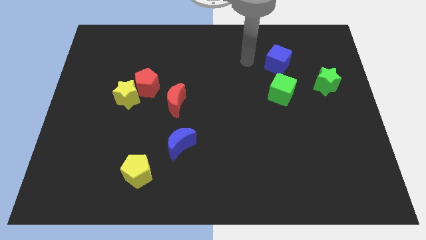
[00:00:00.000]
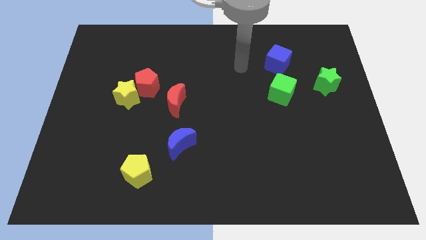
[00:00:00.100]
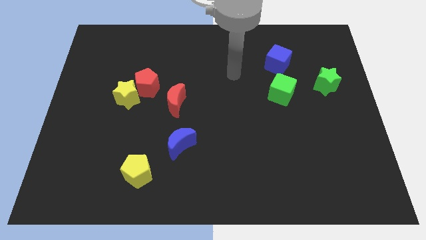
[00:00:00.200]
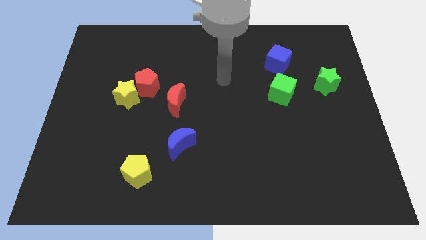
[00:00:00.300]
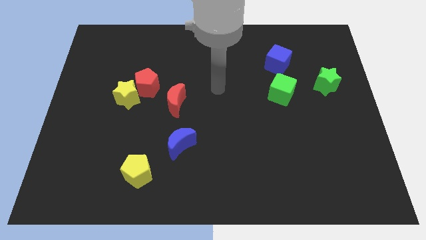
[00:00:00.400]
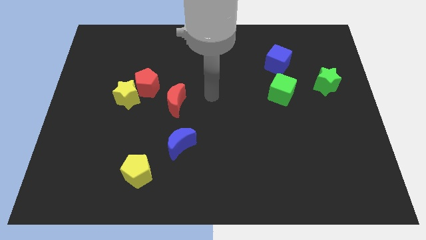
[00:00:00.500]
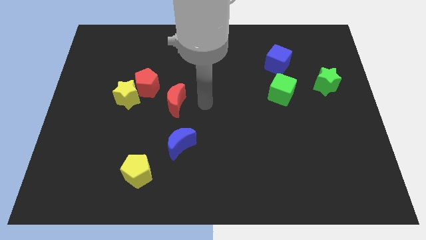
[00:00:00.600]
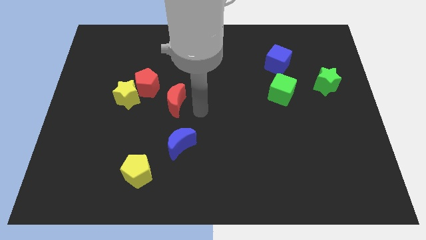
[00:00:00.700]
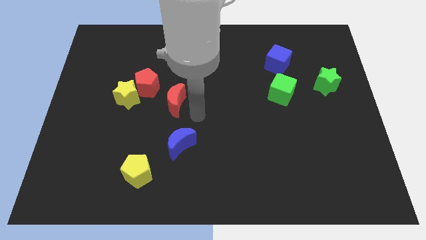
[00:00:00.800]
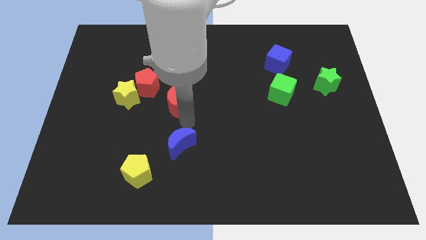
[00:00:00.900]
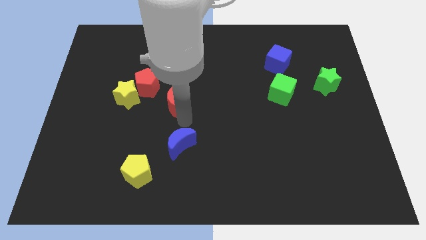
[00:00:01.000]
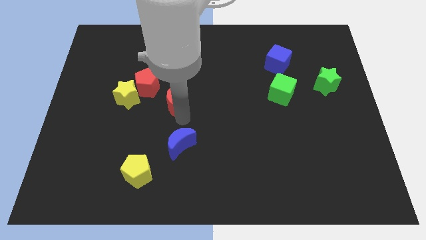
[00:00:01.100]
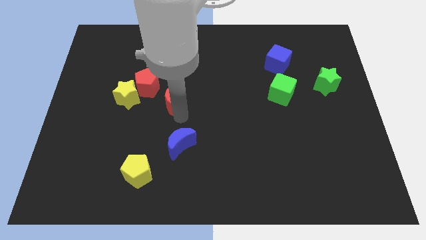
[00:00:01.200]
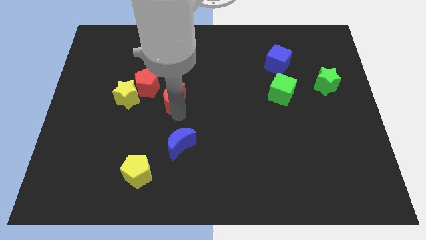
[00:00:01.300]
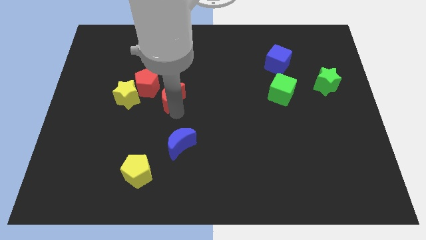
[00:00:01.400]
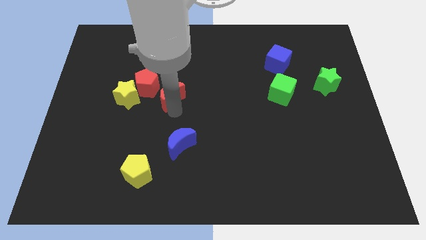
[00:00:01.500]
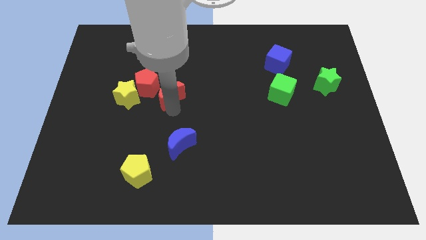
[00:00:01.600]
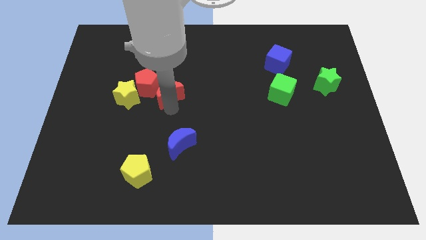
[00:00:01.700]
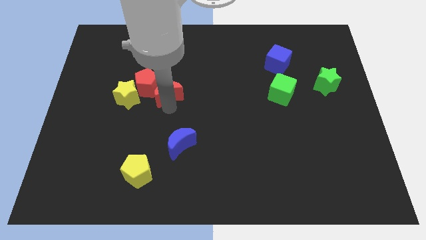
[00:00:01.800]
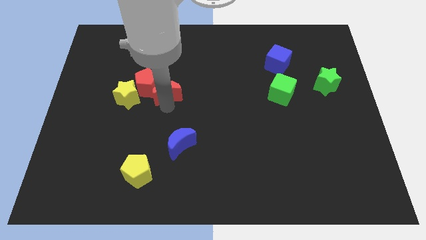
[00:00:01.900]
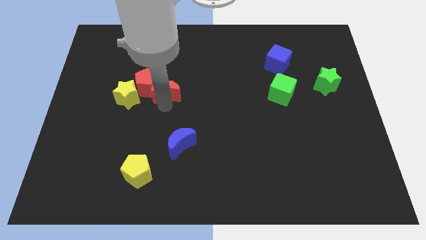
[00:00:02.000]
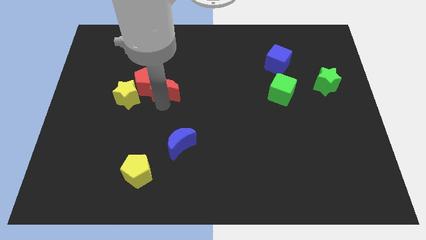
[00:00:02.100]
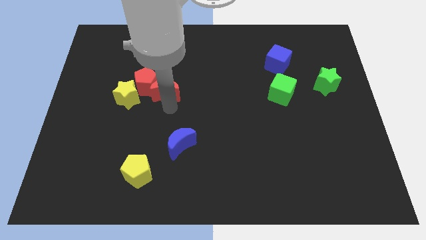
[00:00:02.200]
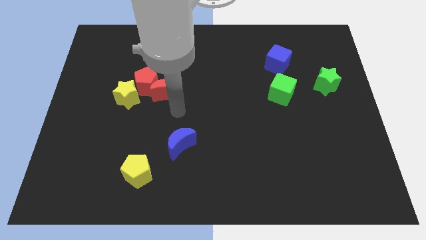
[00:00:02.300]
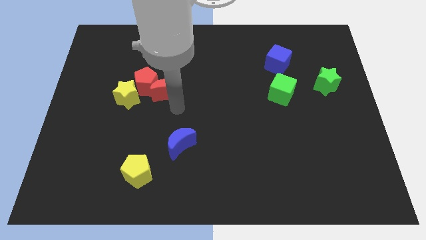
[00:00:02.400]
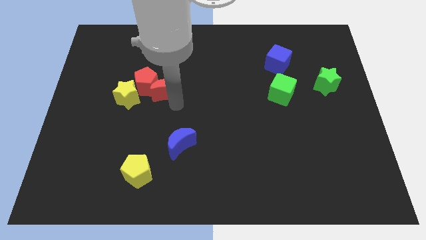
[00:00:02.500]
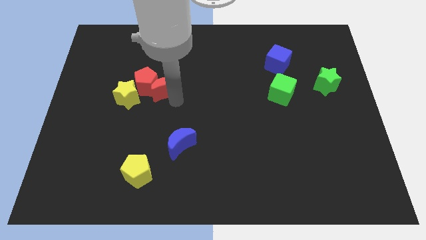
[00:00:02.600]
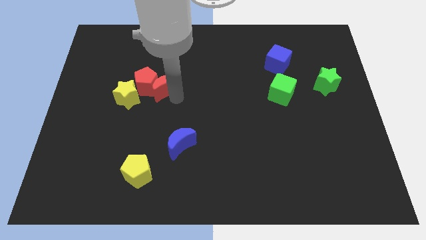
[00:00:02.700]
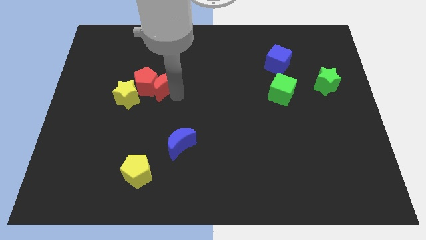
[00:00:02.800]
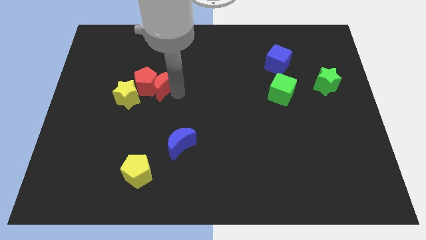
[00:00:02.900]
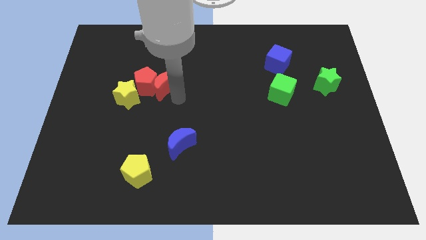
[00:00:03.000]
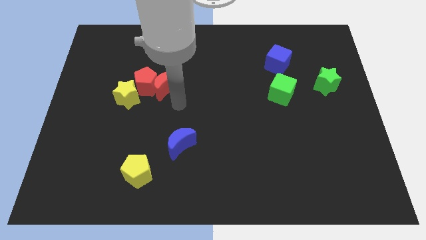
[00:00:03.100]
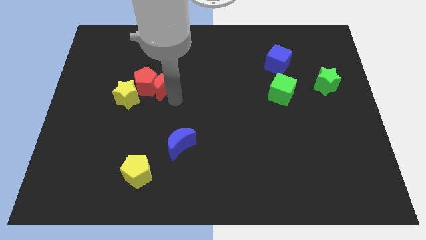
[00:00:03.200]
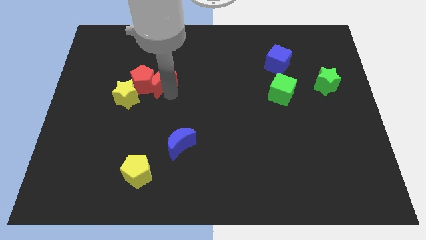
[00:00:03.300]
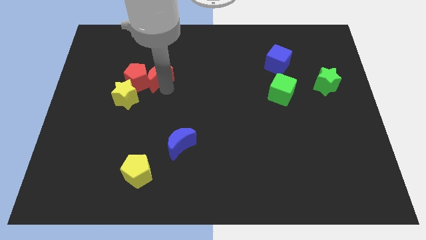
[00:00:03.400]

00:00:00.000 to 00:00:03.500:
push the red moon slightly diagonally up and left

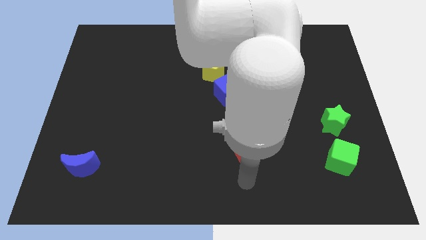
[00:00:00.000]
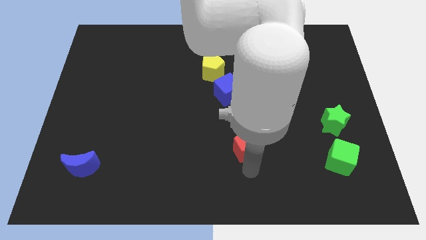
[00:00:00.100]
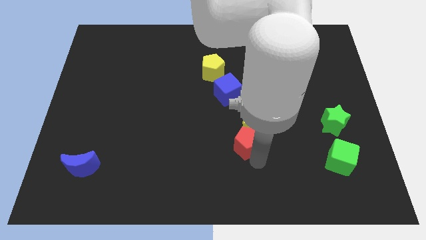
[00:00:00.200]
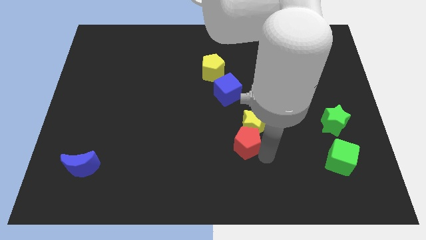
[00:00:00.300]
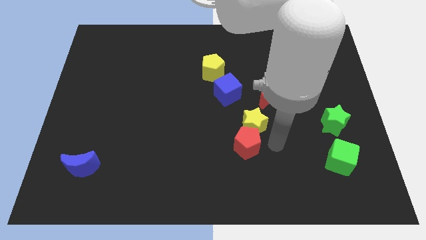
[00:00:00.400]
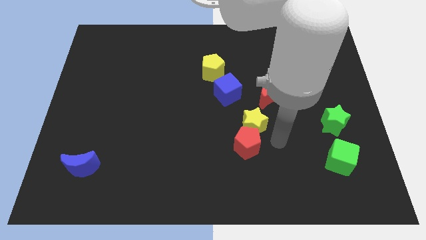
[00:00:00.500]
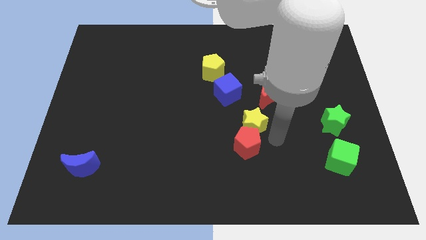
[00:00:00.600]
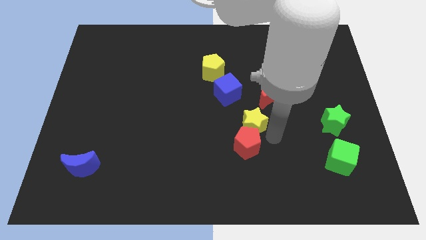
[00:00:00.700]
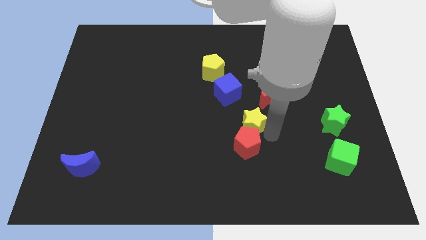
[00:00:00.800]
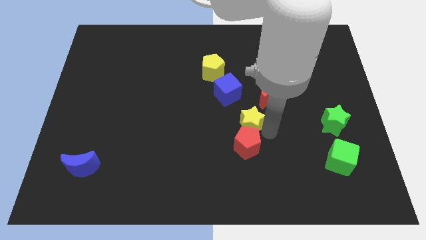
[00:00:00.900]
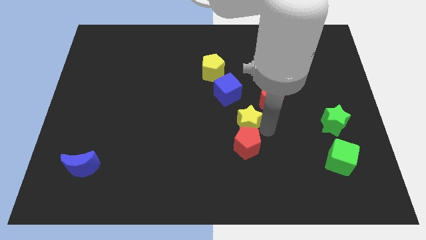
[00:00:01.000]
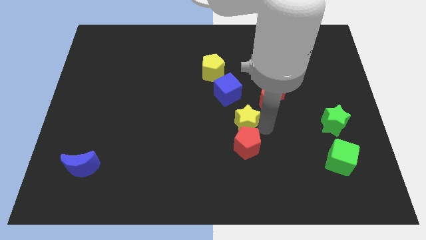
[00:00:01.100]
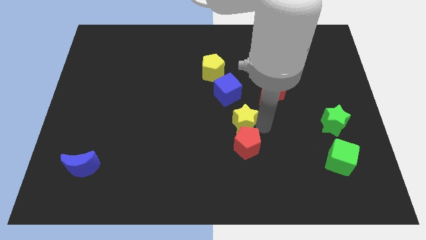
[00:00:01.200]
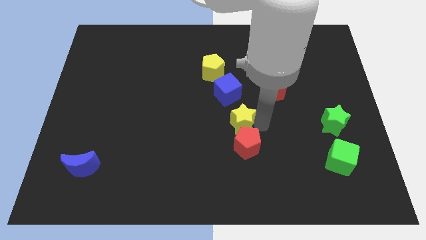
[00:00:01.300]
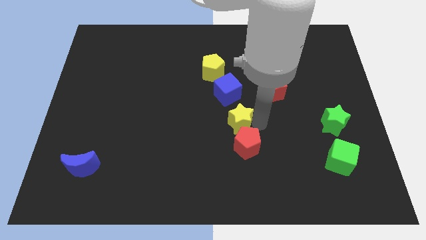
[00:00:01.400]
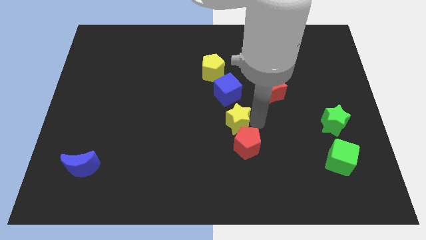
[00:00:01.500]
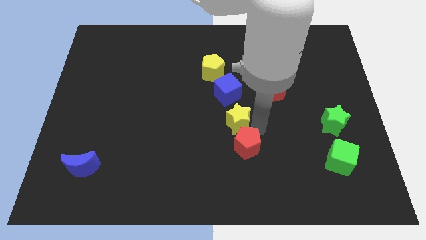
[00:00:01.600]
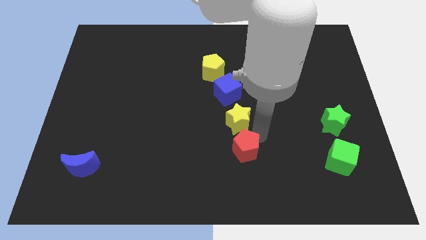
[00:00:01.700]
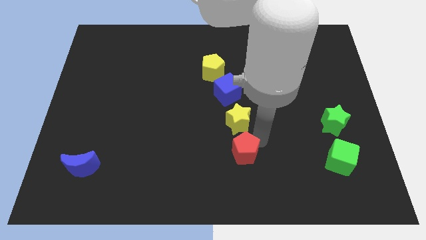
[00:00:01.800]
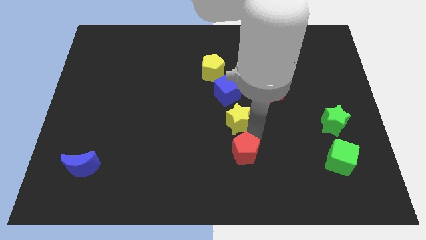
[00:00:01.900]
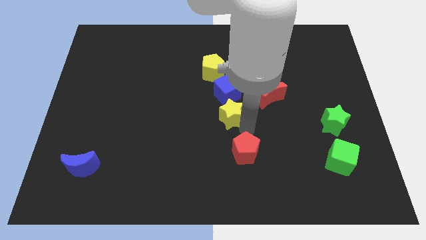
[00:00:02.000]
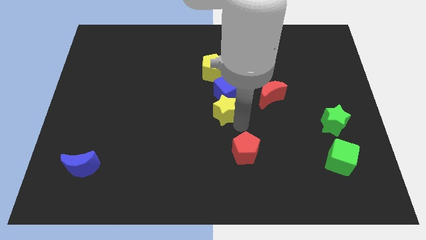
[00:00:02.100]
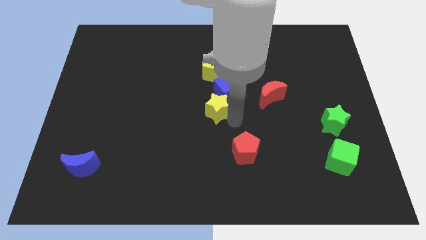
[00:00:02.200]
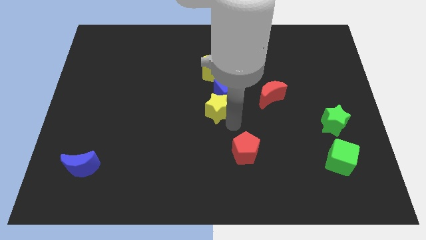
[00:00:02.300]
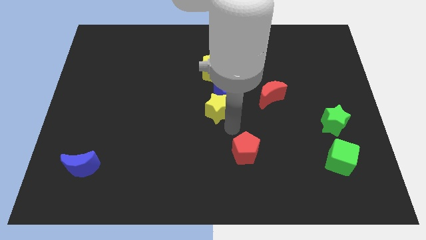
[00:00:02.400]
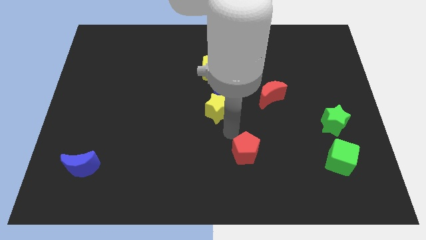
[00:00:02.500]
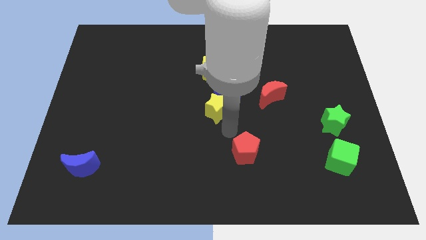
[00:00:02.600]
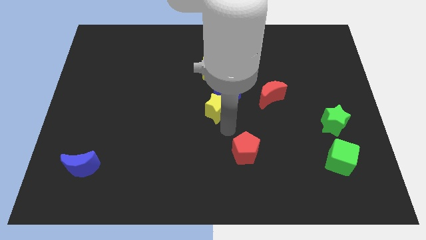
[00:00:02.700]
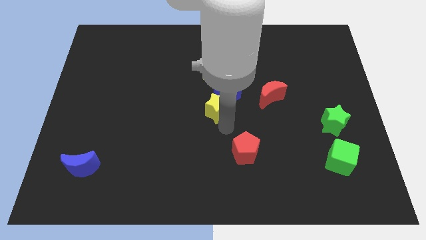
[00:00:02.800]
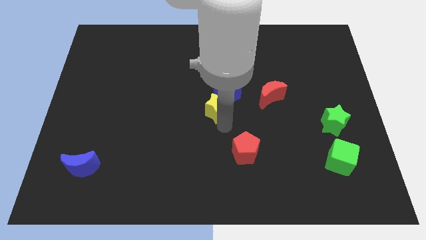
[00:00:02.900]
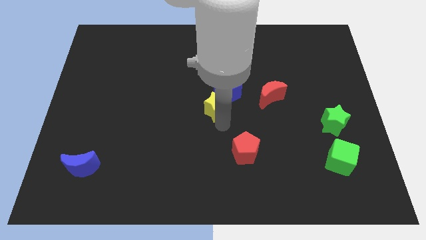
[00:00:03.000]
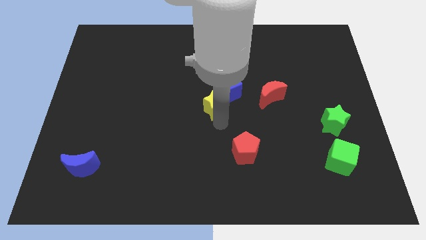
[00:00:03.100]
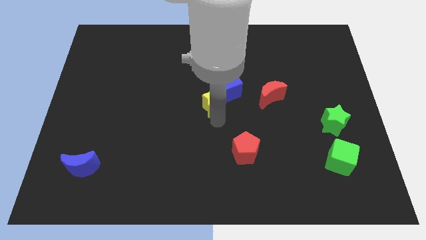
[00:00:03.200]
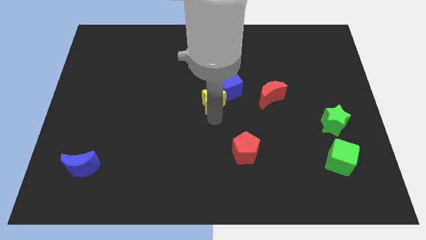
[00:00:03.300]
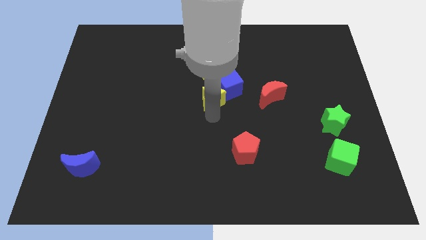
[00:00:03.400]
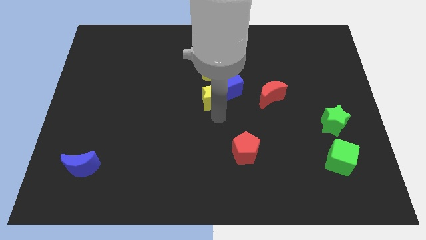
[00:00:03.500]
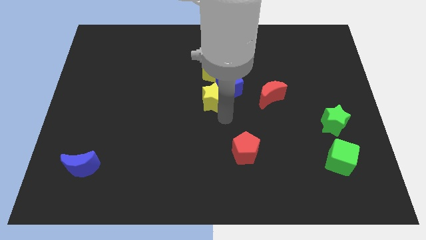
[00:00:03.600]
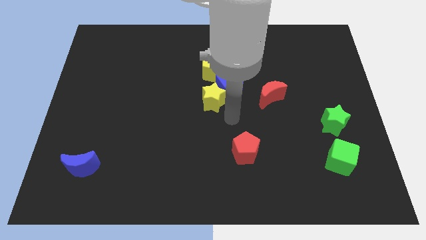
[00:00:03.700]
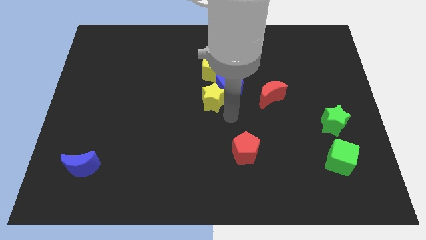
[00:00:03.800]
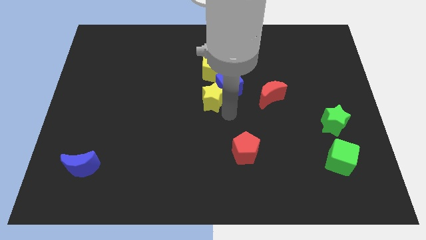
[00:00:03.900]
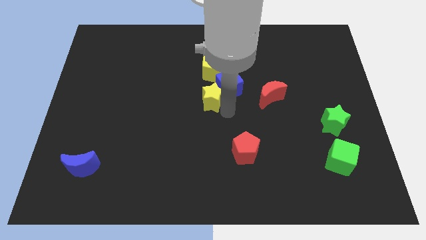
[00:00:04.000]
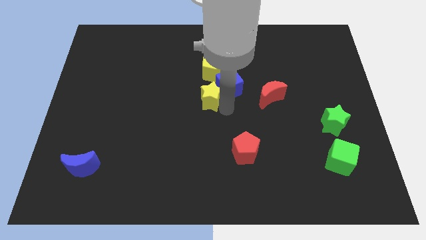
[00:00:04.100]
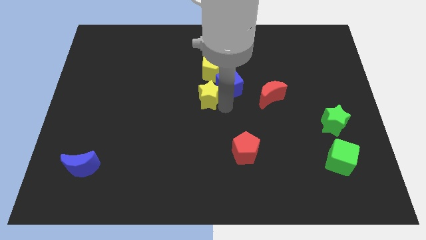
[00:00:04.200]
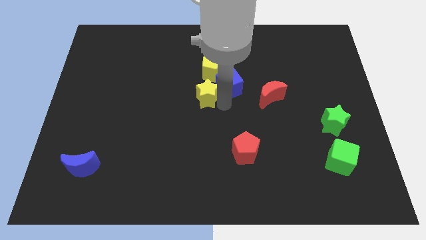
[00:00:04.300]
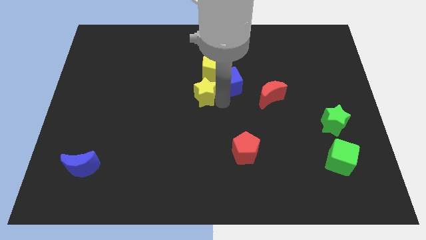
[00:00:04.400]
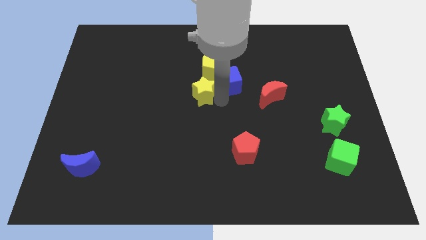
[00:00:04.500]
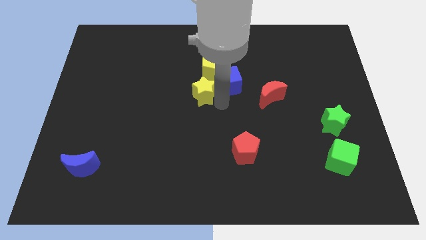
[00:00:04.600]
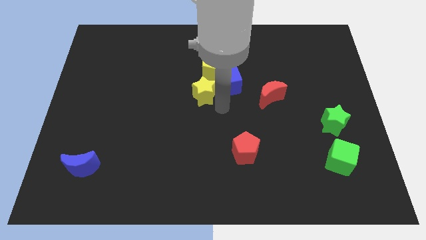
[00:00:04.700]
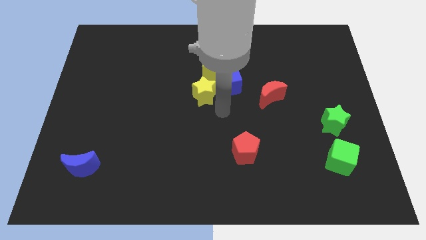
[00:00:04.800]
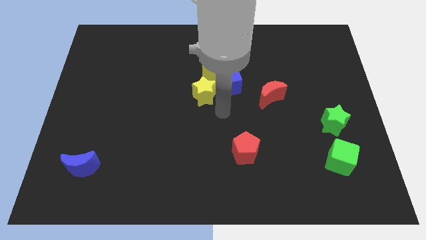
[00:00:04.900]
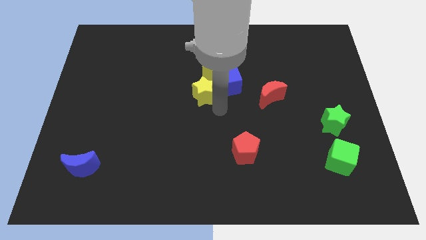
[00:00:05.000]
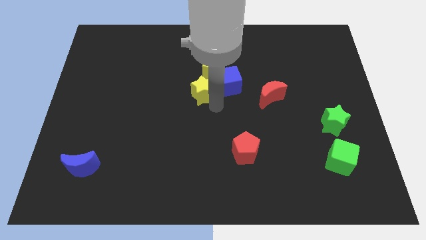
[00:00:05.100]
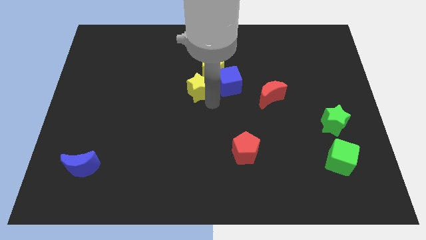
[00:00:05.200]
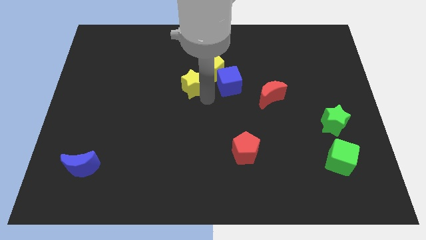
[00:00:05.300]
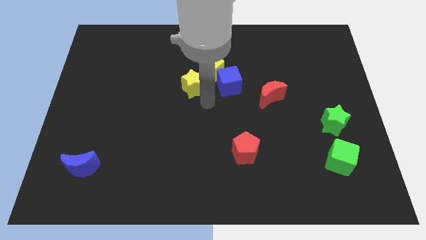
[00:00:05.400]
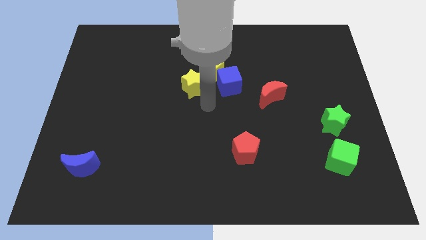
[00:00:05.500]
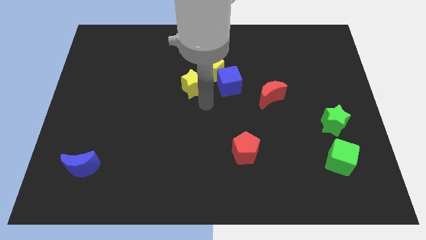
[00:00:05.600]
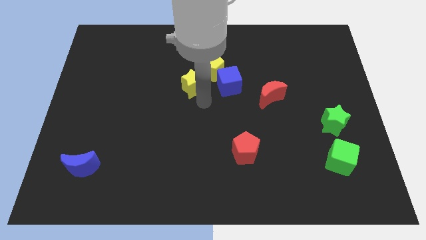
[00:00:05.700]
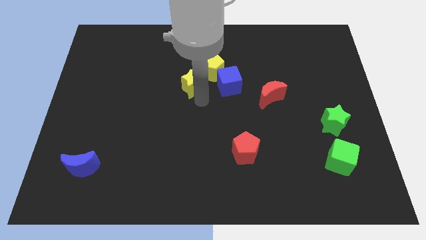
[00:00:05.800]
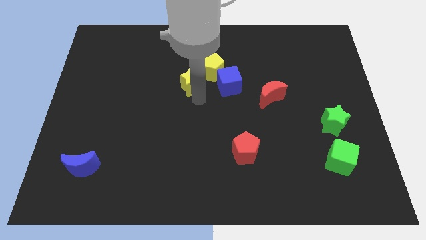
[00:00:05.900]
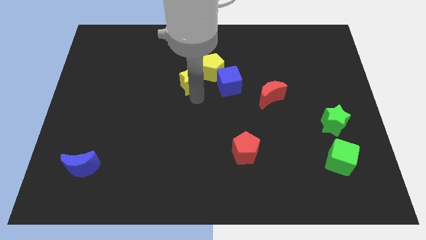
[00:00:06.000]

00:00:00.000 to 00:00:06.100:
slide the yellow star upwards and to the left diagonally
